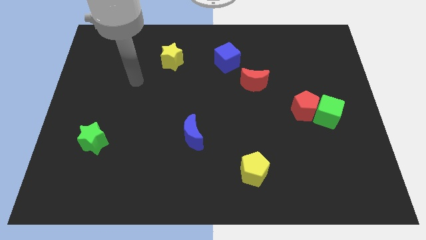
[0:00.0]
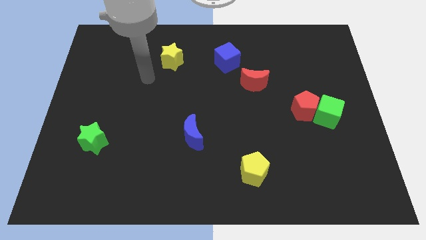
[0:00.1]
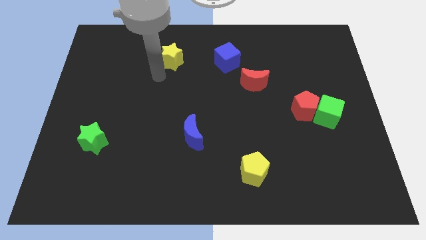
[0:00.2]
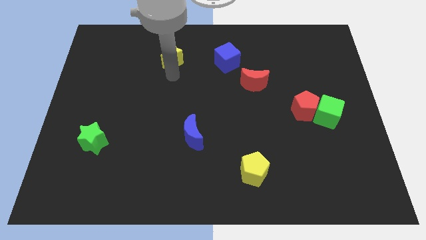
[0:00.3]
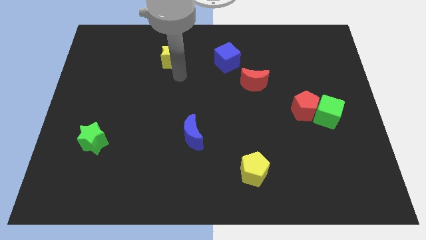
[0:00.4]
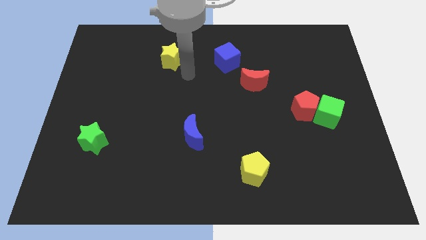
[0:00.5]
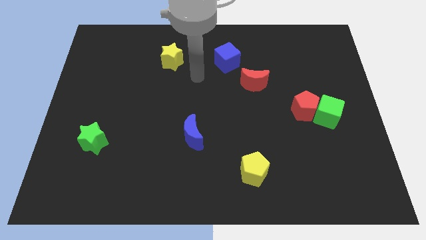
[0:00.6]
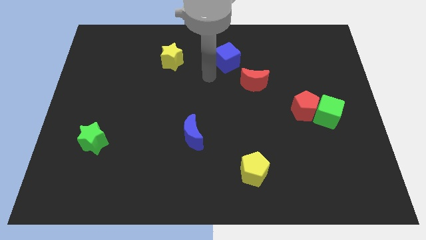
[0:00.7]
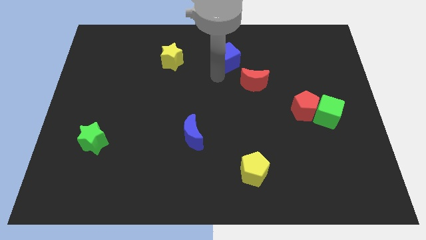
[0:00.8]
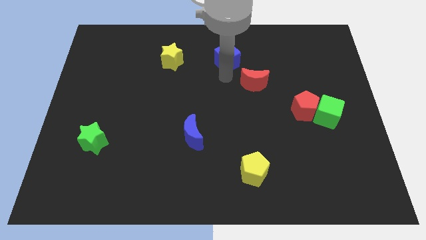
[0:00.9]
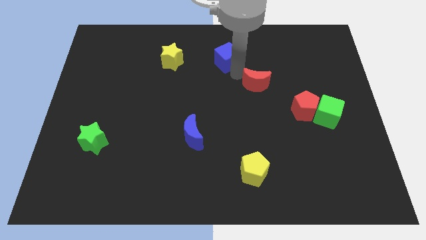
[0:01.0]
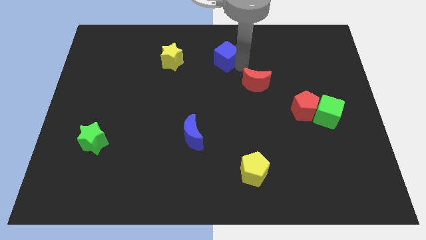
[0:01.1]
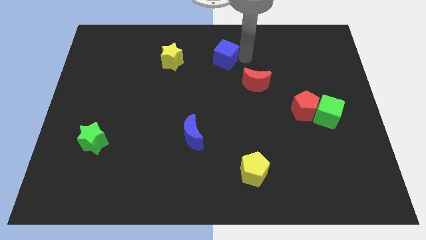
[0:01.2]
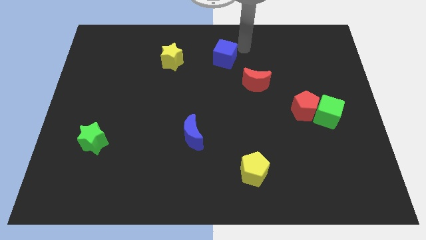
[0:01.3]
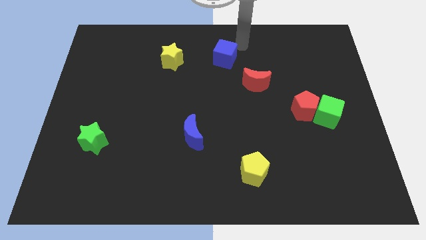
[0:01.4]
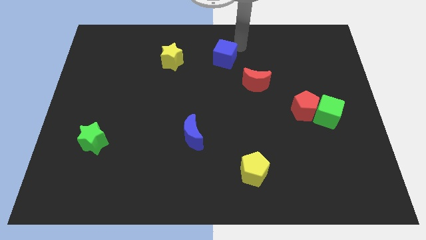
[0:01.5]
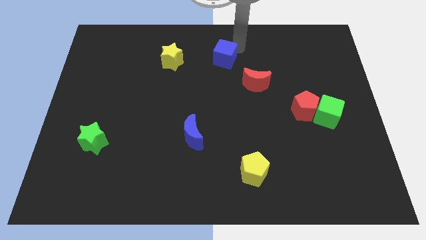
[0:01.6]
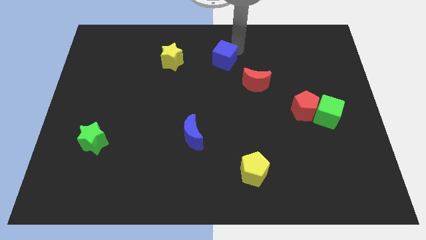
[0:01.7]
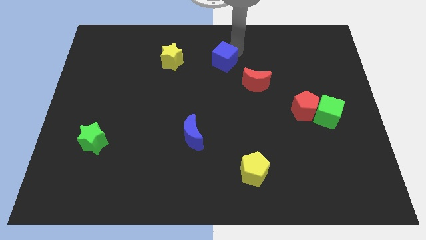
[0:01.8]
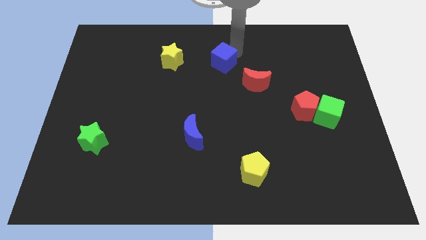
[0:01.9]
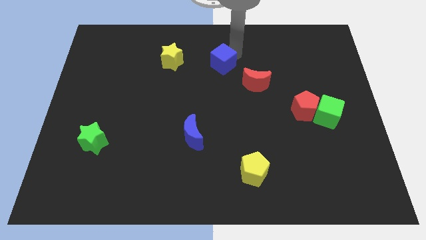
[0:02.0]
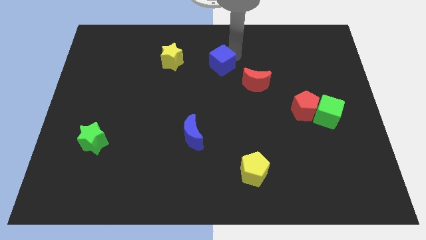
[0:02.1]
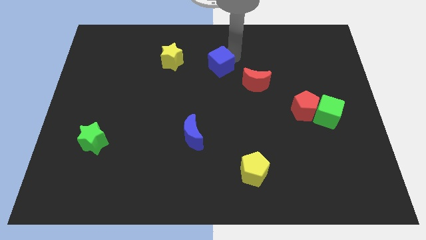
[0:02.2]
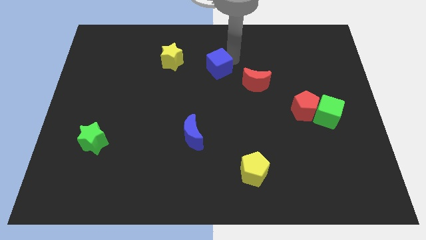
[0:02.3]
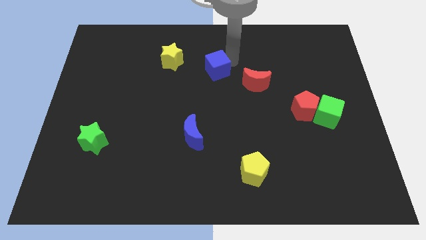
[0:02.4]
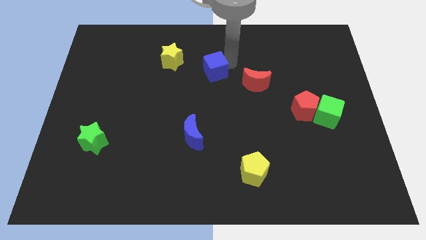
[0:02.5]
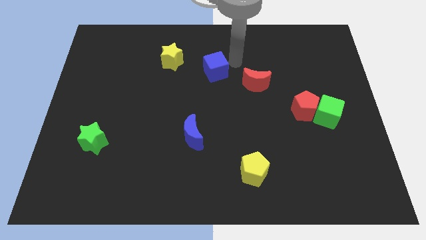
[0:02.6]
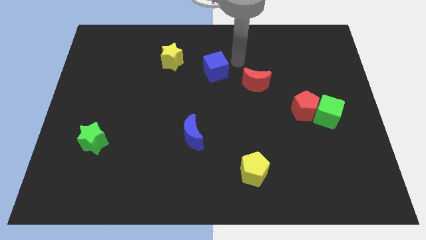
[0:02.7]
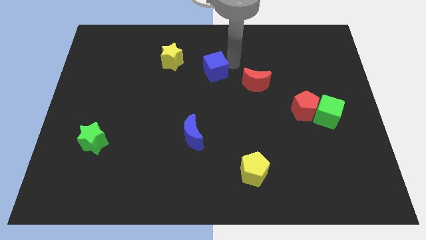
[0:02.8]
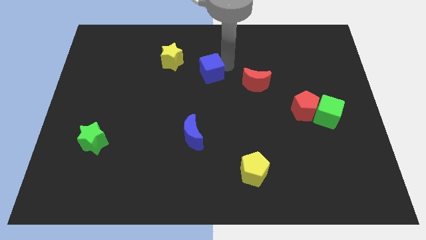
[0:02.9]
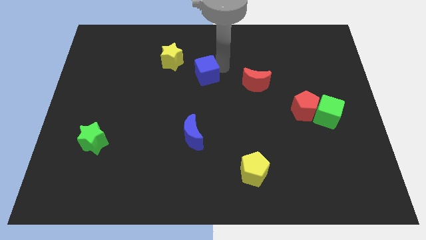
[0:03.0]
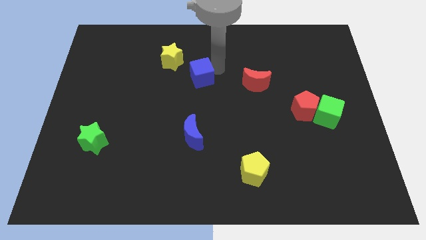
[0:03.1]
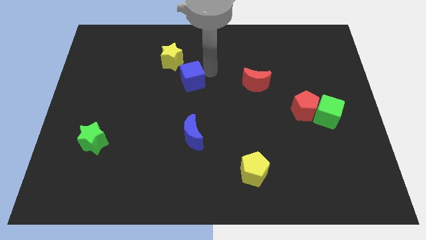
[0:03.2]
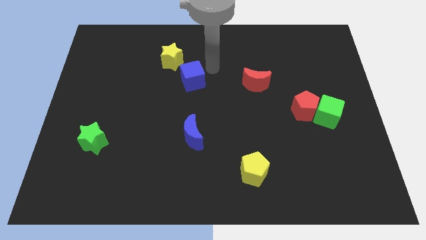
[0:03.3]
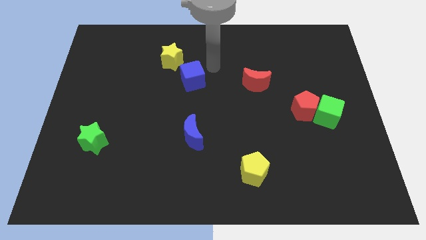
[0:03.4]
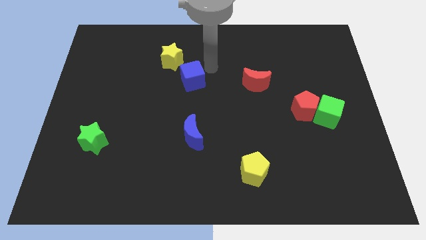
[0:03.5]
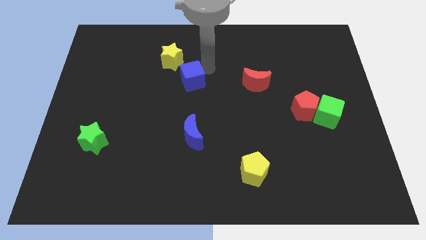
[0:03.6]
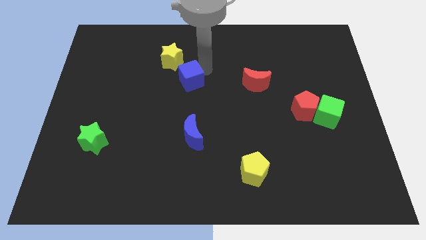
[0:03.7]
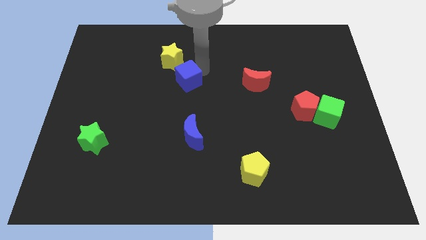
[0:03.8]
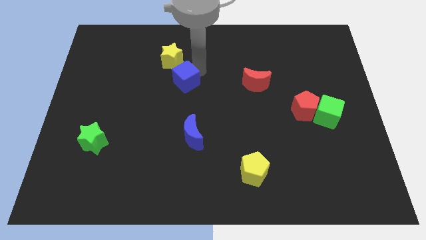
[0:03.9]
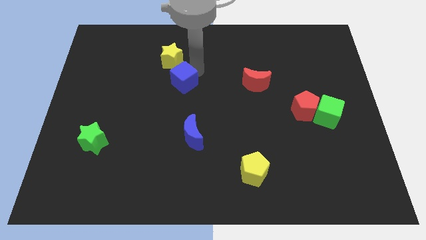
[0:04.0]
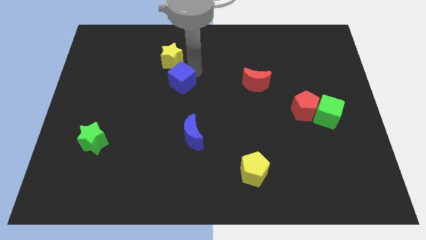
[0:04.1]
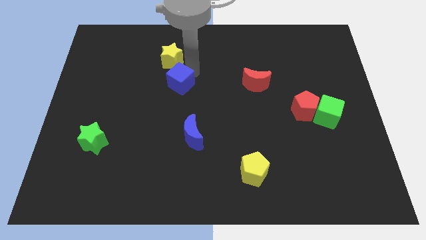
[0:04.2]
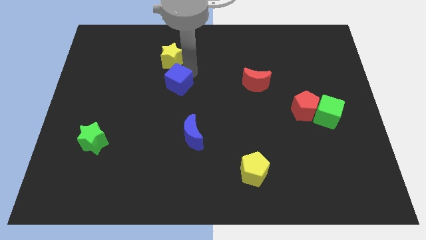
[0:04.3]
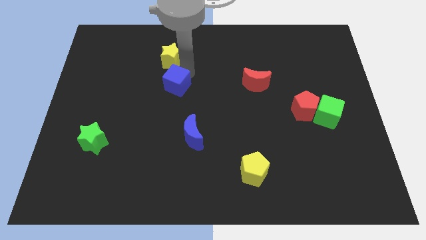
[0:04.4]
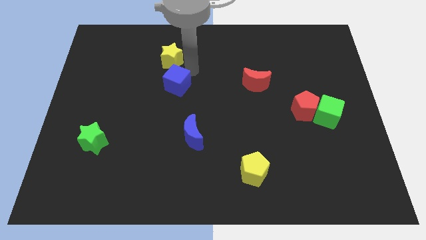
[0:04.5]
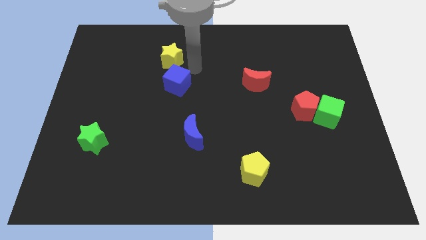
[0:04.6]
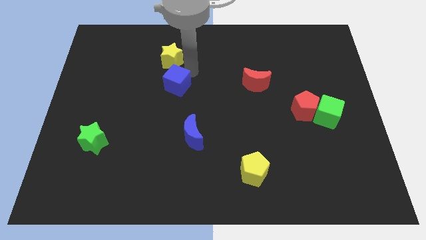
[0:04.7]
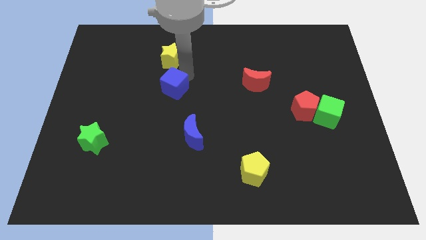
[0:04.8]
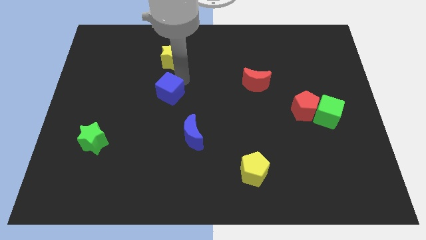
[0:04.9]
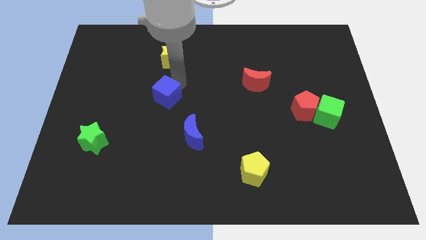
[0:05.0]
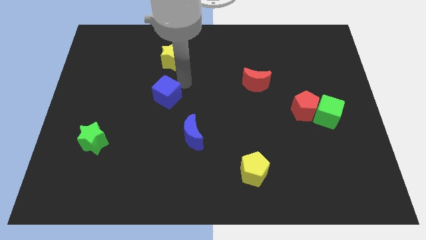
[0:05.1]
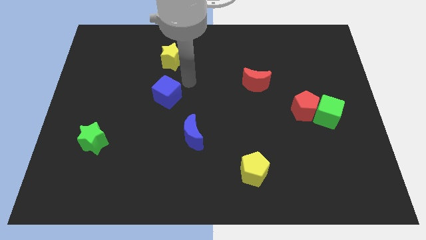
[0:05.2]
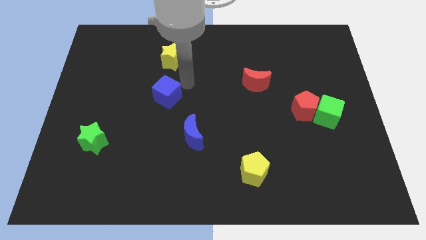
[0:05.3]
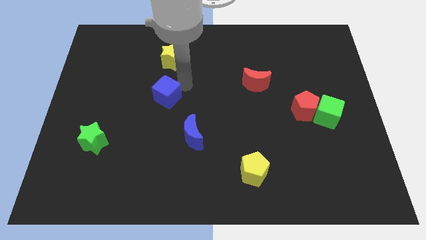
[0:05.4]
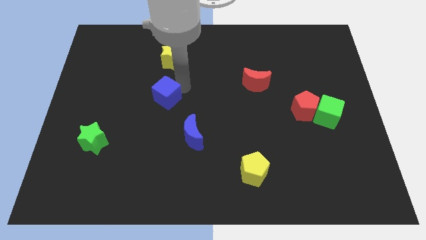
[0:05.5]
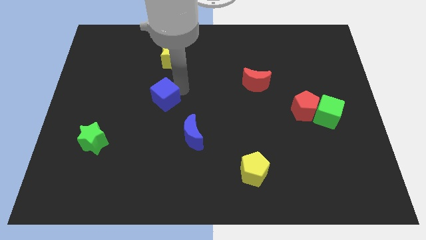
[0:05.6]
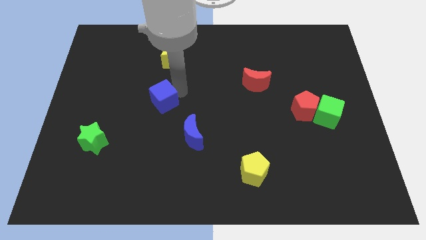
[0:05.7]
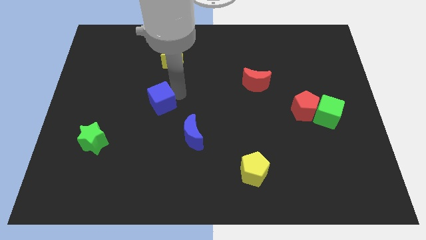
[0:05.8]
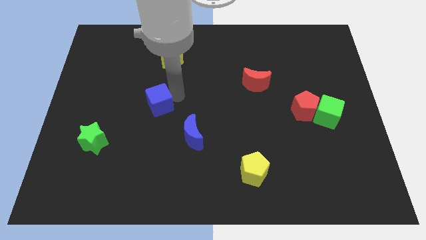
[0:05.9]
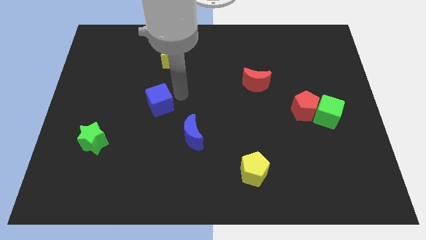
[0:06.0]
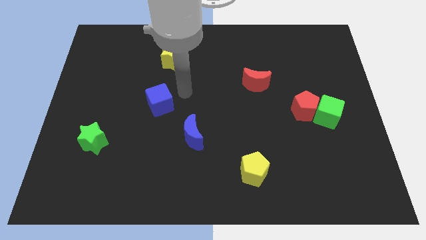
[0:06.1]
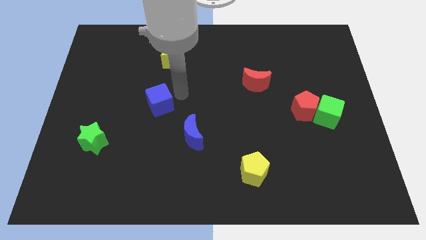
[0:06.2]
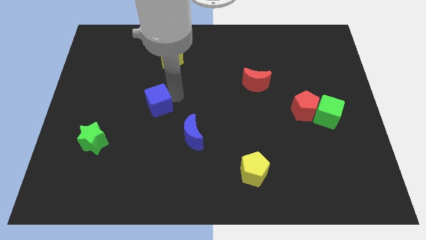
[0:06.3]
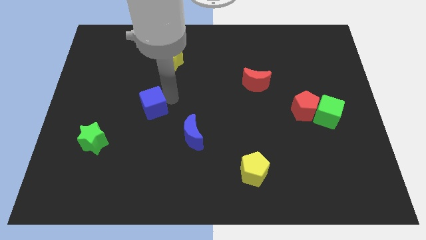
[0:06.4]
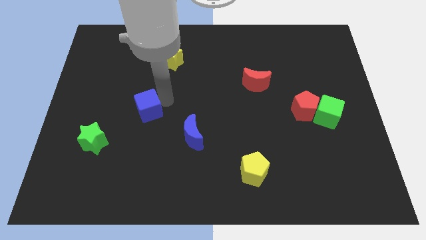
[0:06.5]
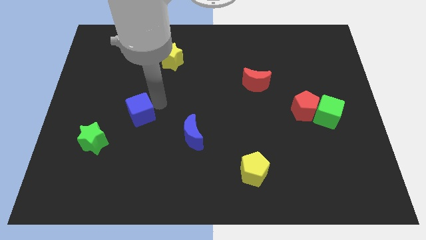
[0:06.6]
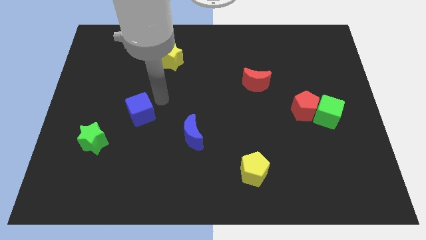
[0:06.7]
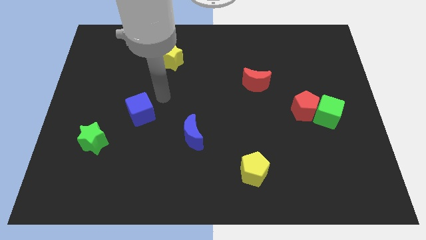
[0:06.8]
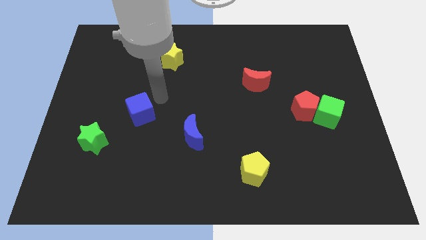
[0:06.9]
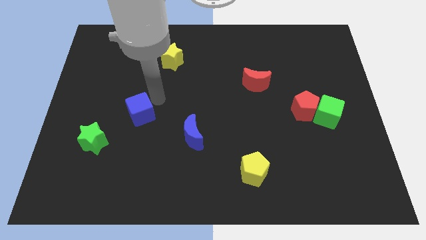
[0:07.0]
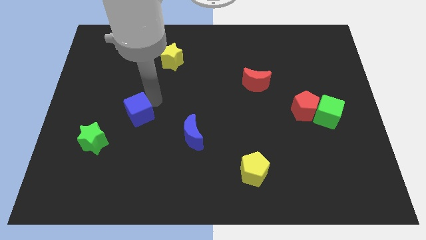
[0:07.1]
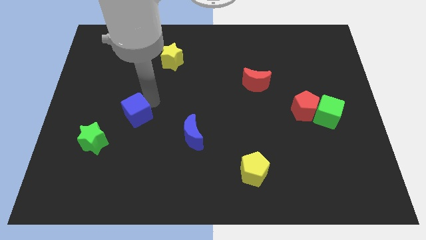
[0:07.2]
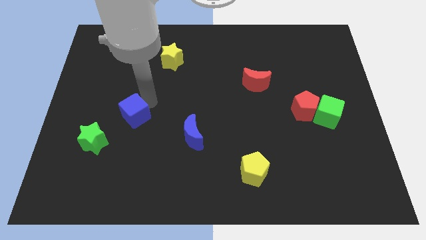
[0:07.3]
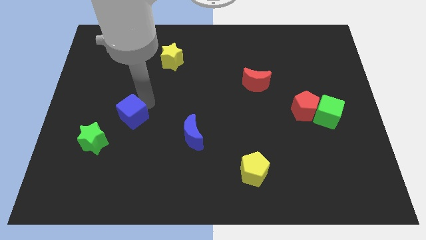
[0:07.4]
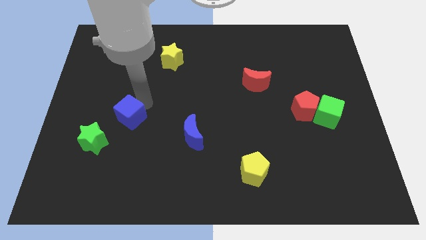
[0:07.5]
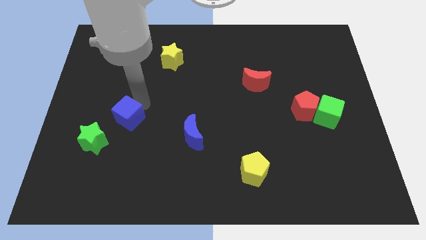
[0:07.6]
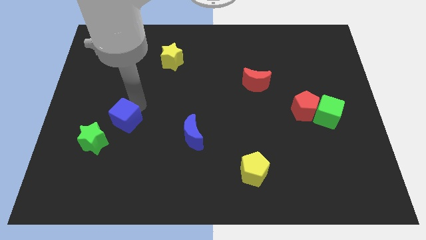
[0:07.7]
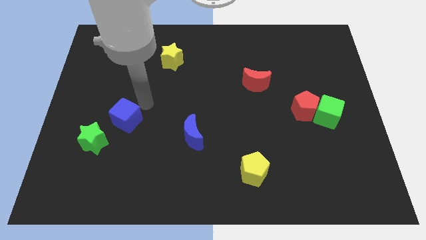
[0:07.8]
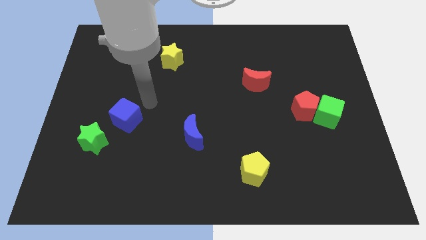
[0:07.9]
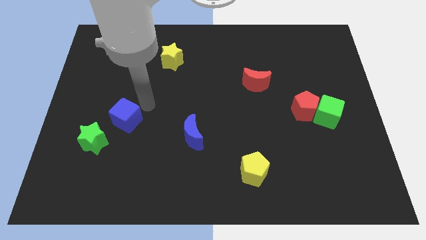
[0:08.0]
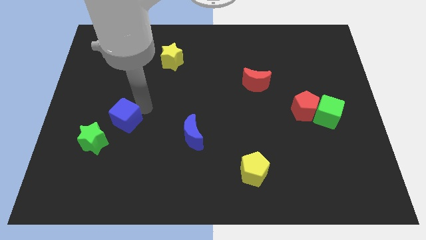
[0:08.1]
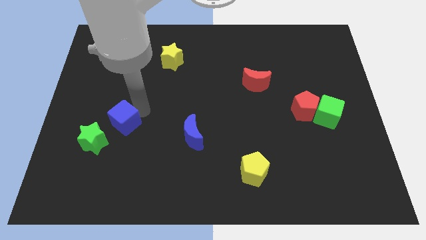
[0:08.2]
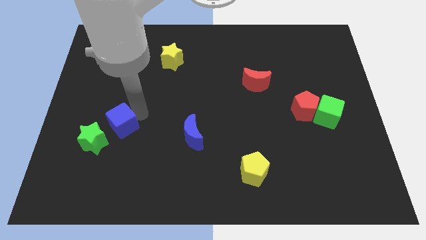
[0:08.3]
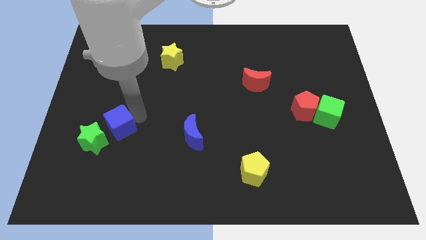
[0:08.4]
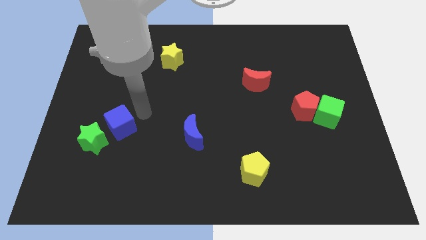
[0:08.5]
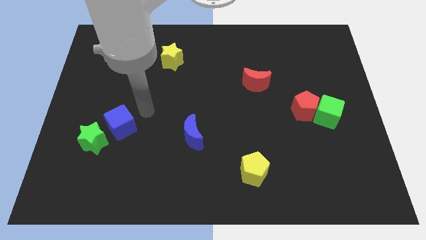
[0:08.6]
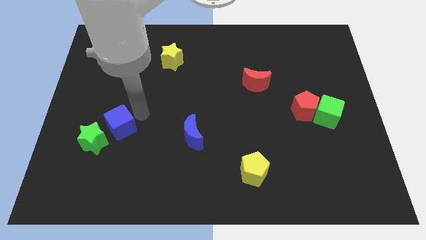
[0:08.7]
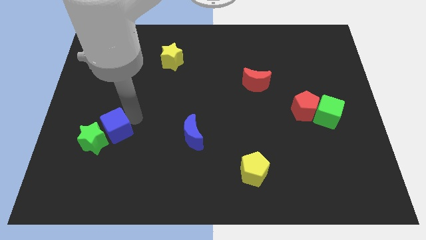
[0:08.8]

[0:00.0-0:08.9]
push the blue cube close to the green star
